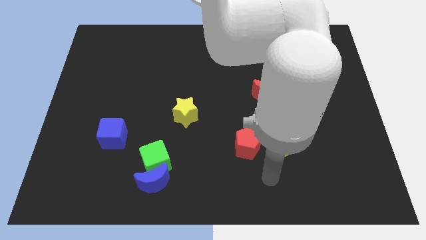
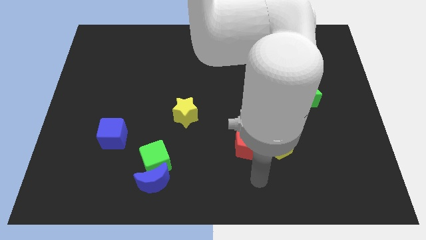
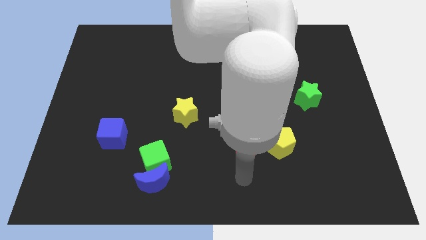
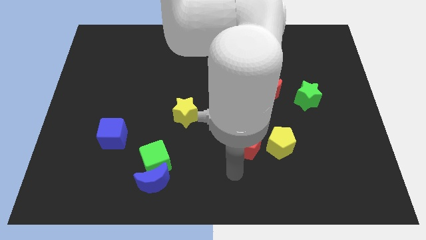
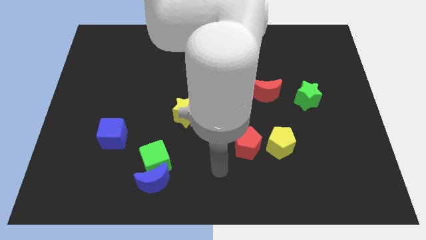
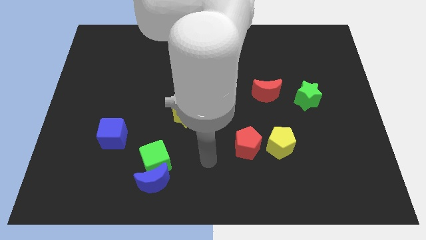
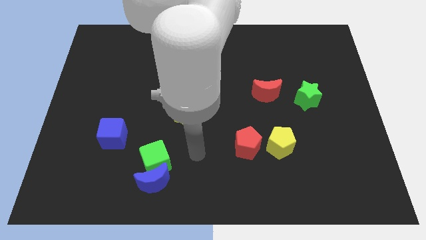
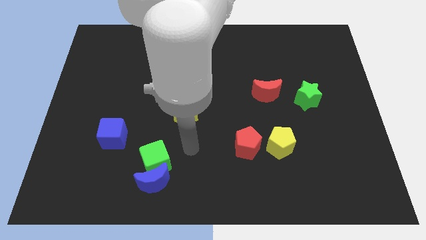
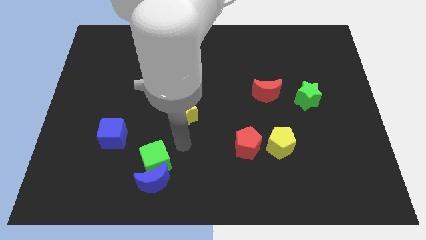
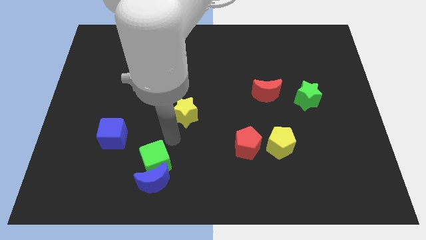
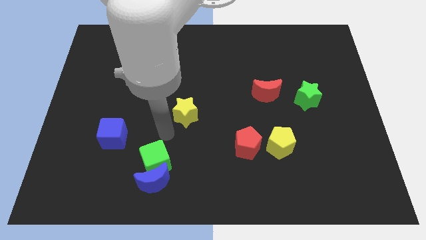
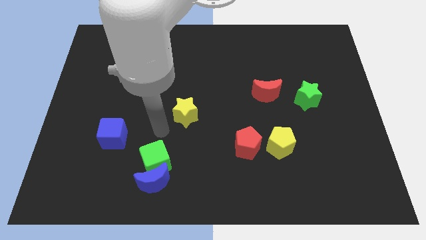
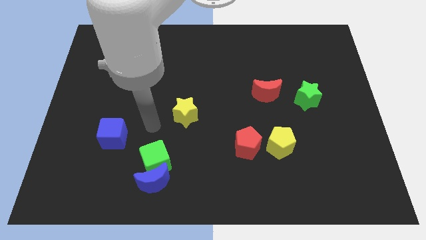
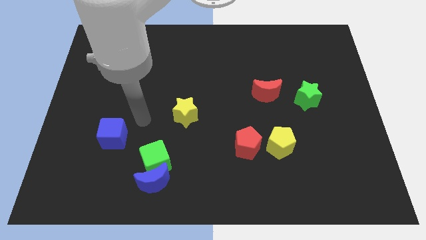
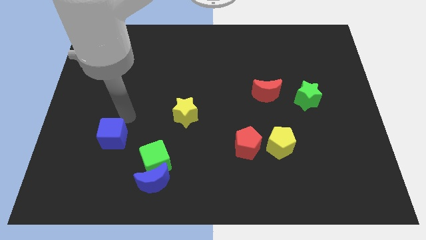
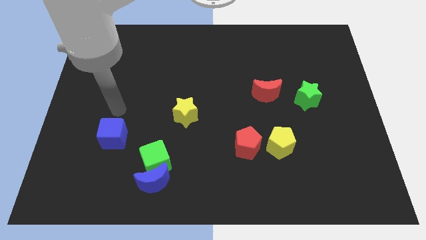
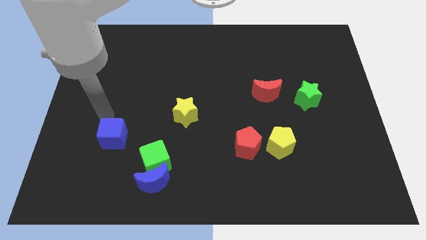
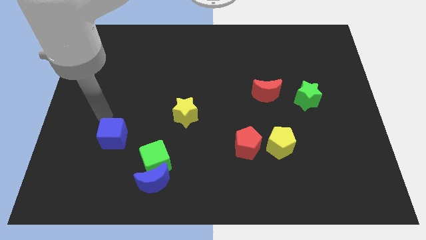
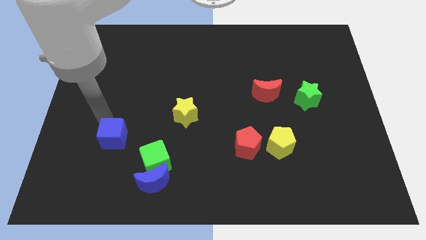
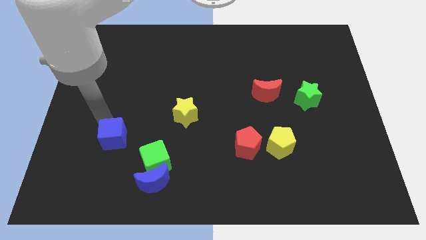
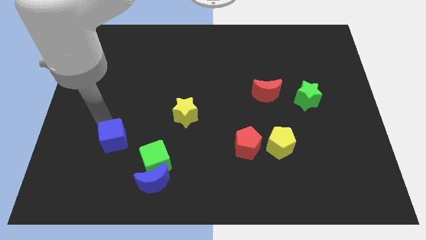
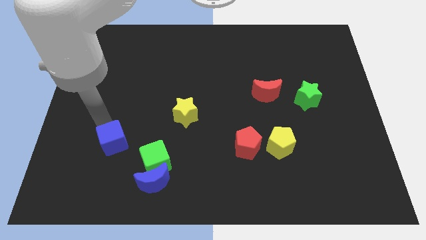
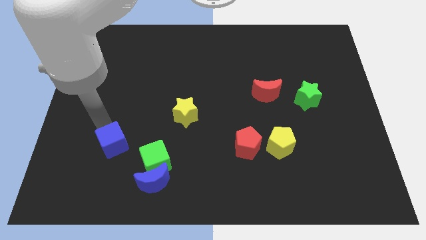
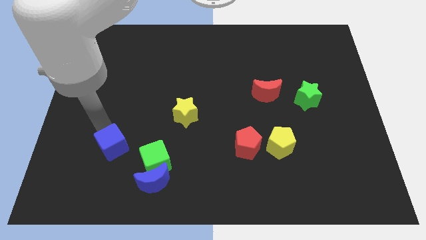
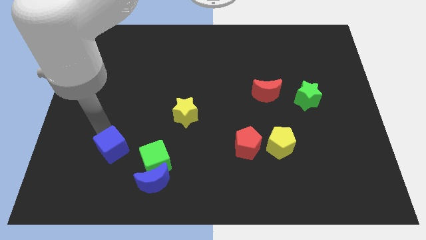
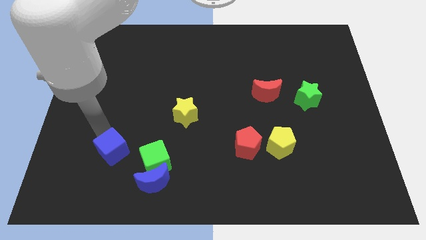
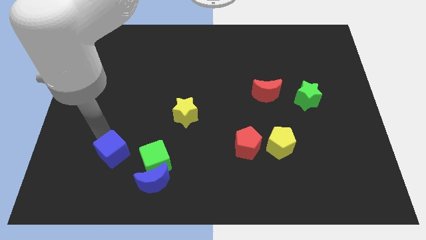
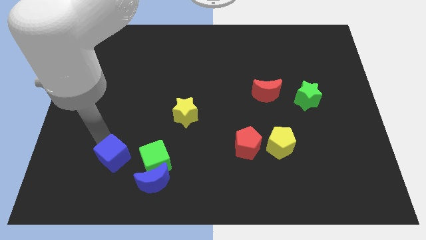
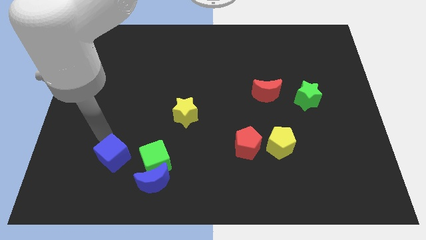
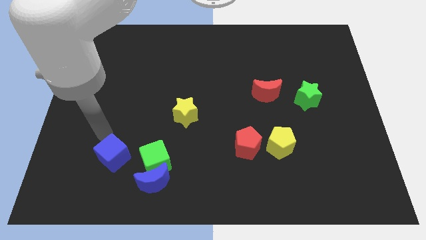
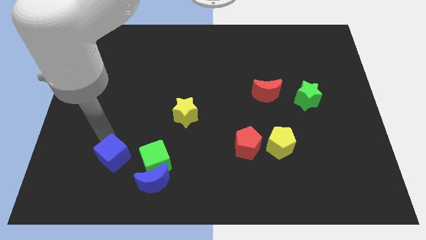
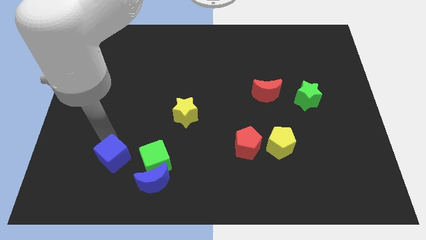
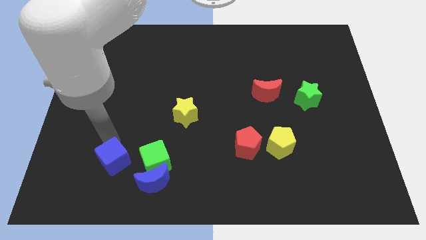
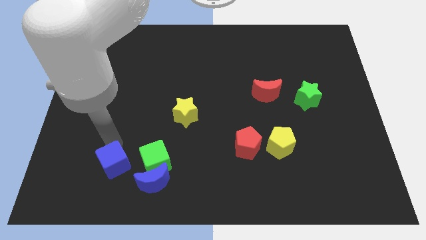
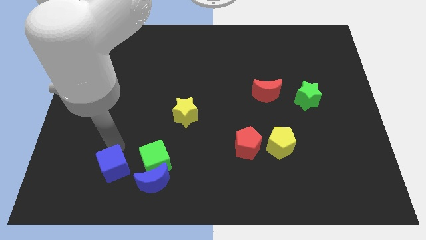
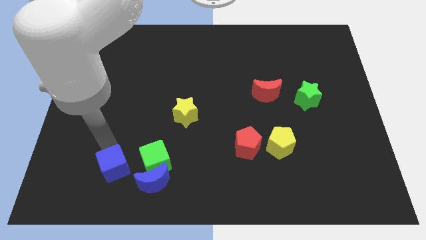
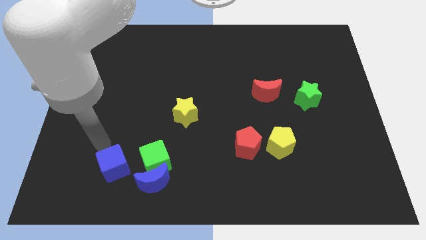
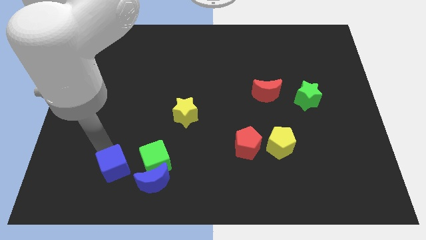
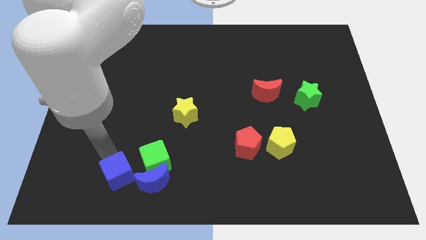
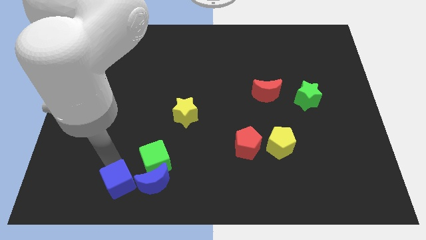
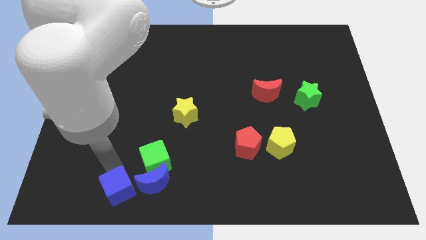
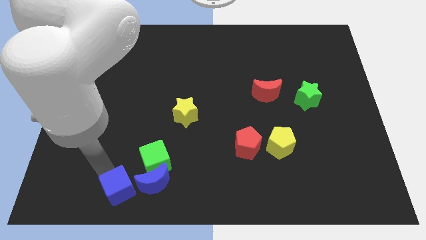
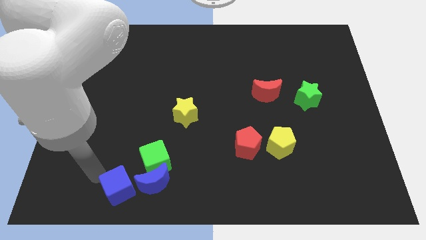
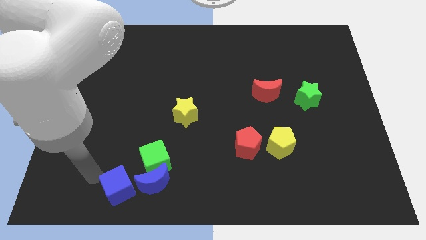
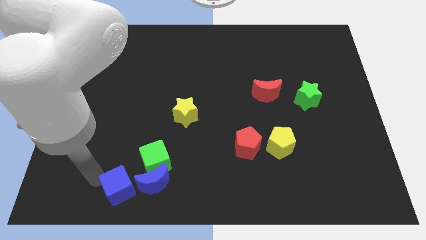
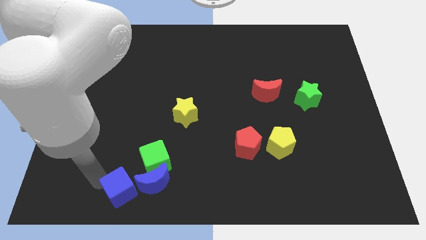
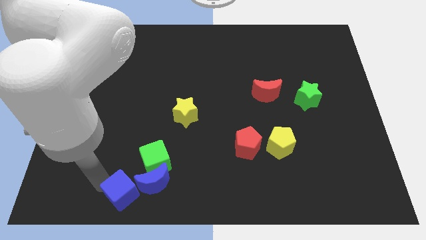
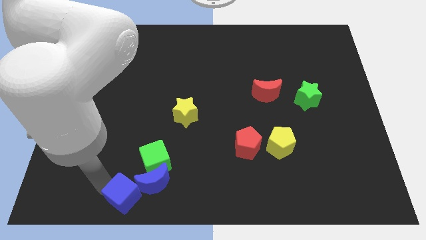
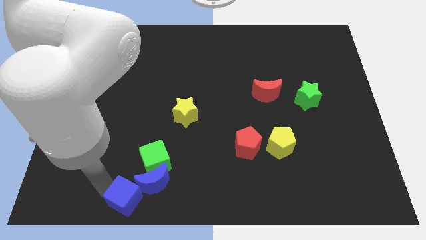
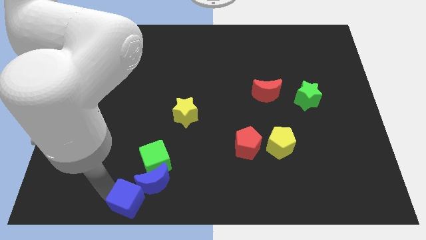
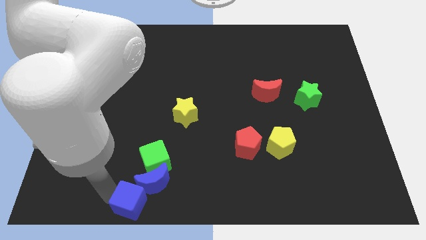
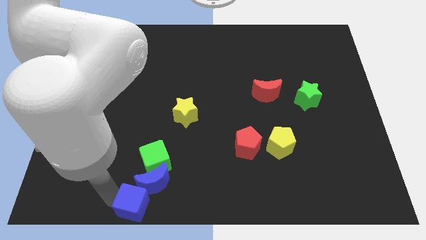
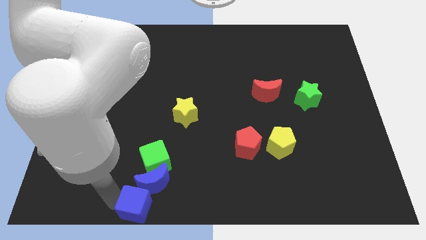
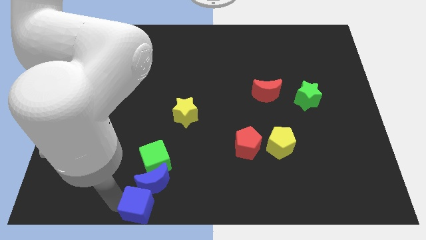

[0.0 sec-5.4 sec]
put the blue cube to the bottom side

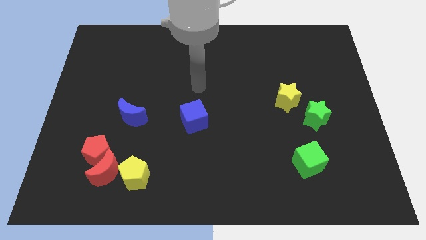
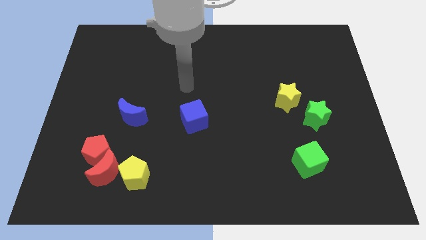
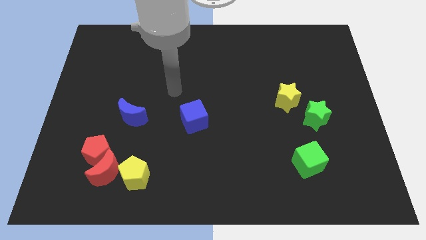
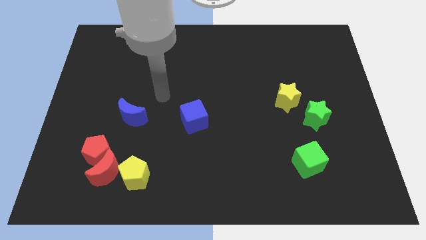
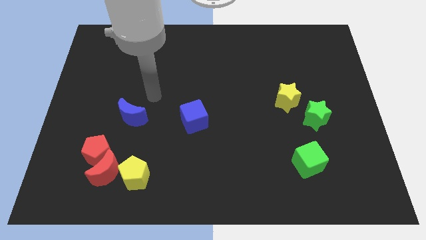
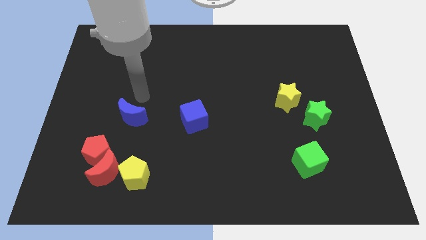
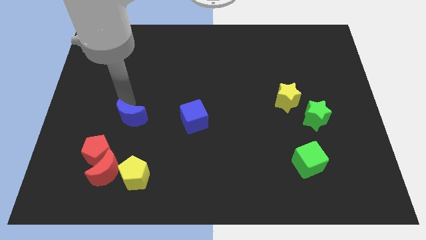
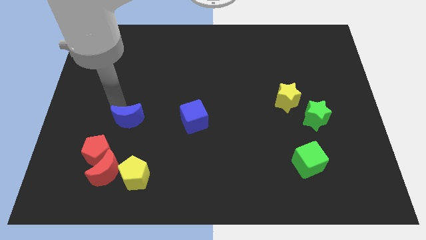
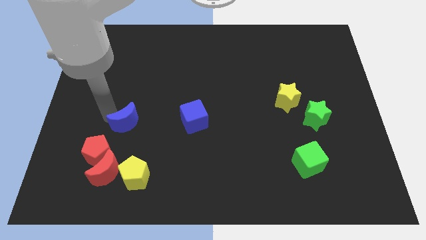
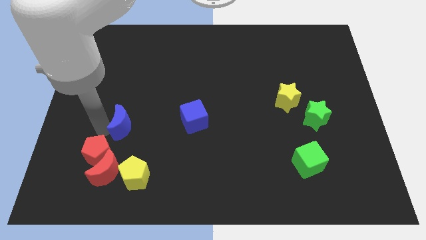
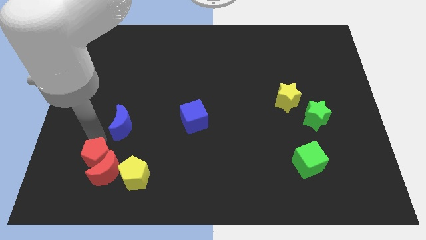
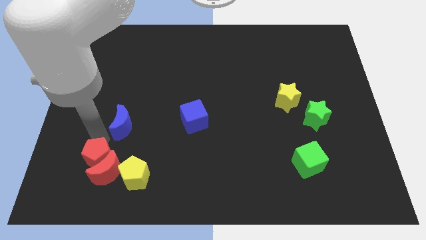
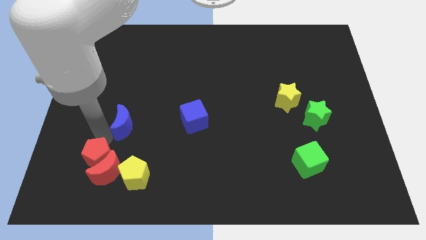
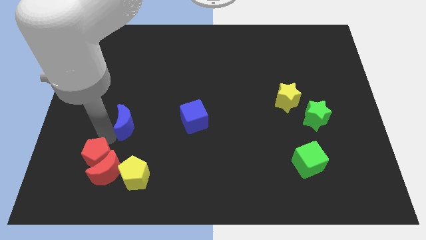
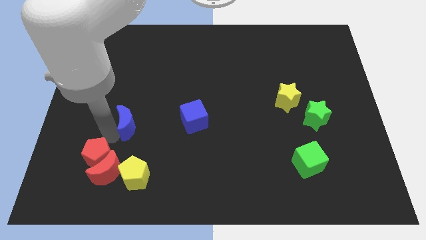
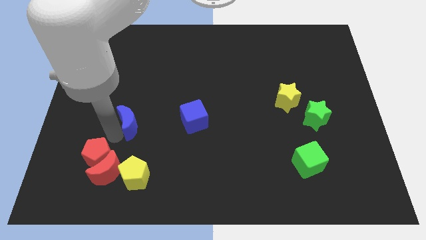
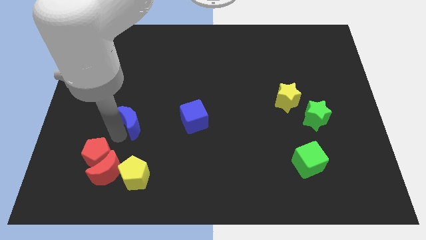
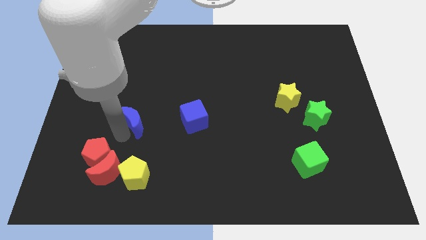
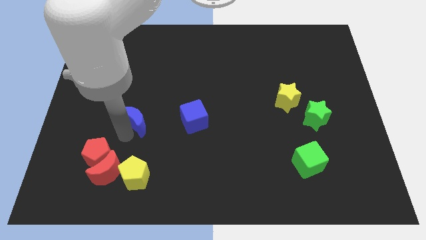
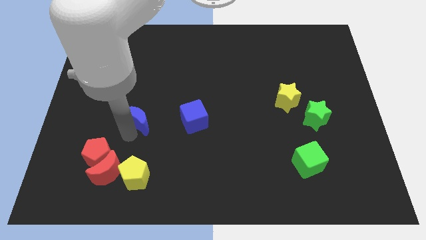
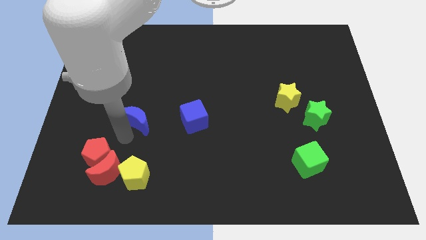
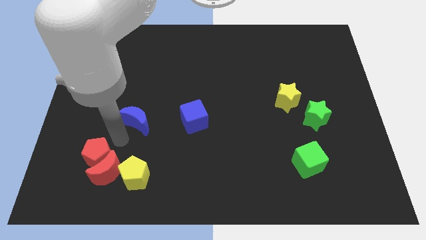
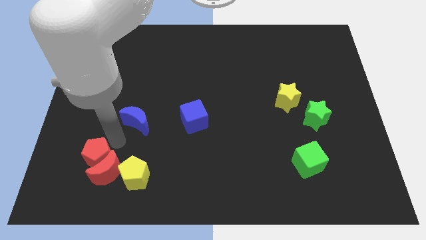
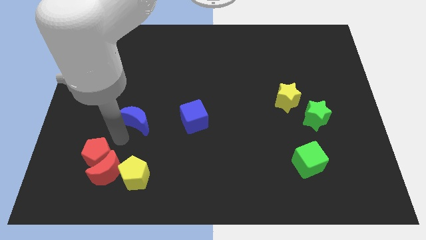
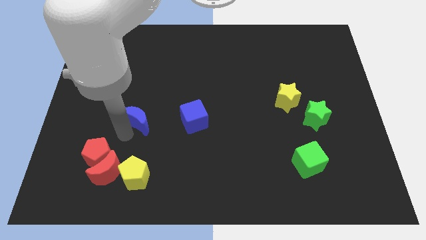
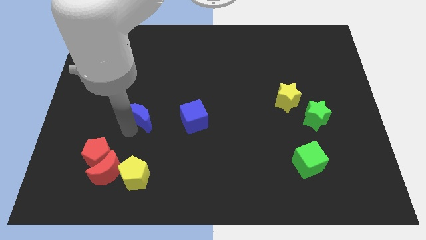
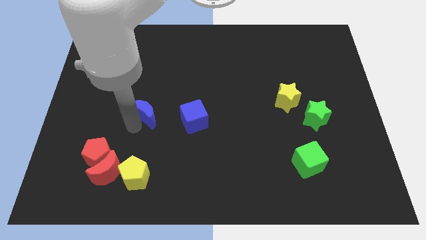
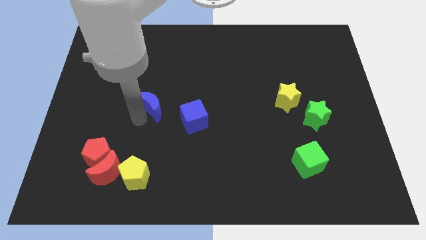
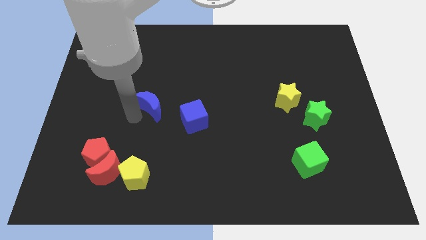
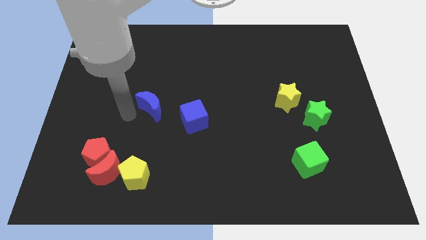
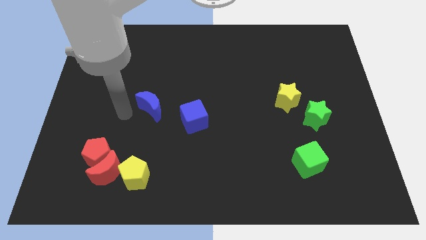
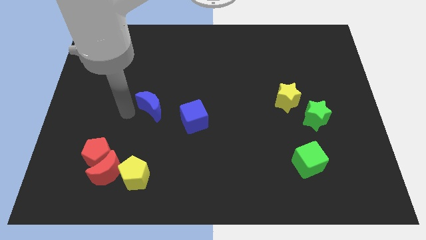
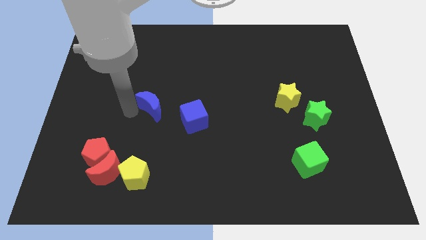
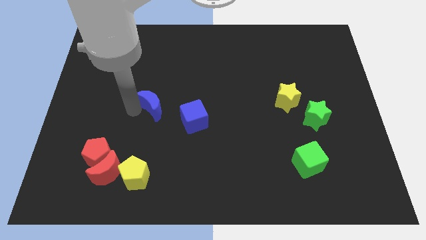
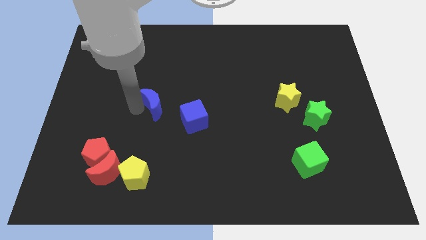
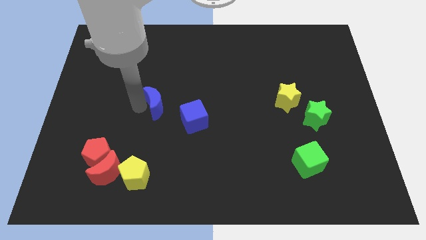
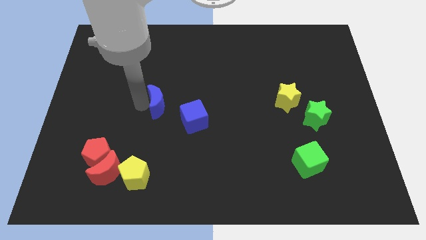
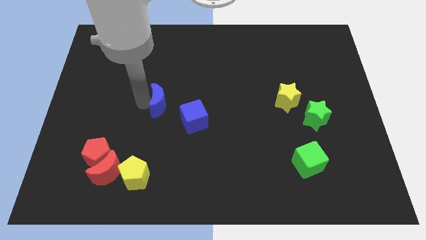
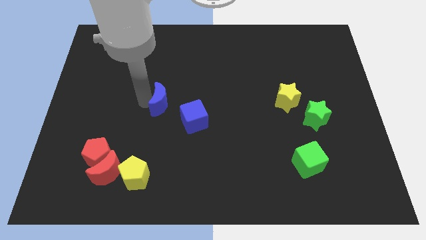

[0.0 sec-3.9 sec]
move the blue moon to the middle of the board
